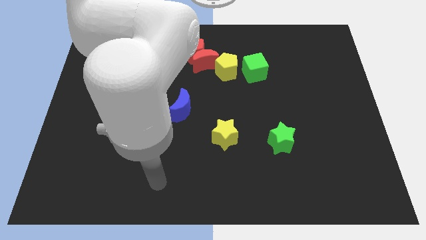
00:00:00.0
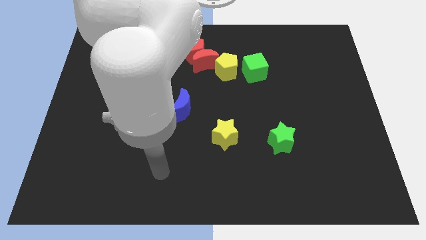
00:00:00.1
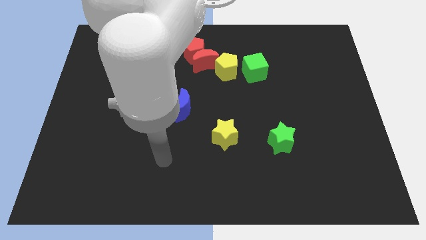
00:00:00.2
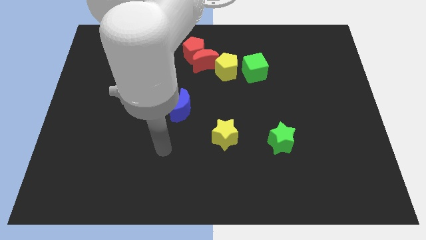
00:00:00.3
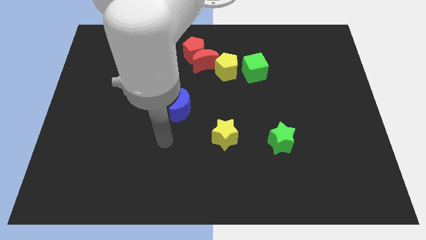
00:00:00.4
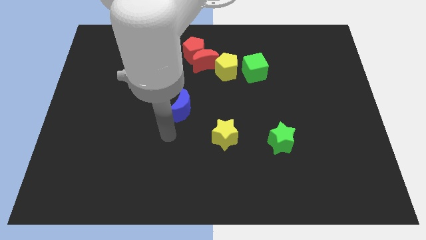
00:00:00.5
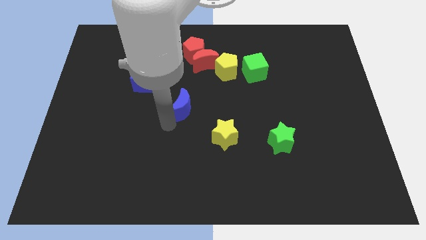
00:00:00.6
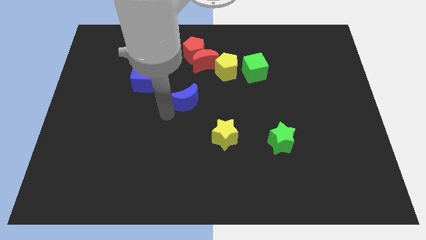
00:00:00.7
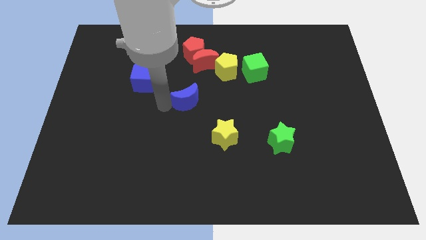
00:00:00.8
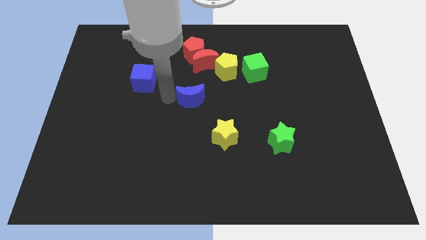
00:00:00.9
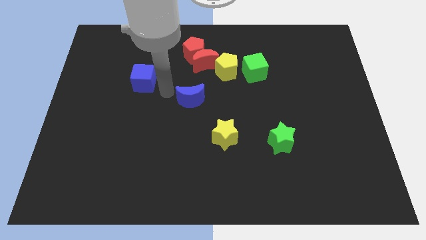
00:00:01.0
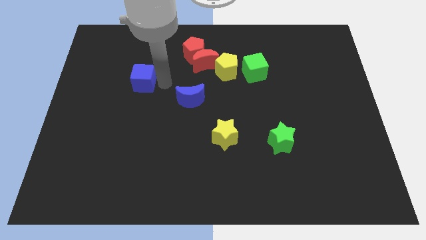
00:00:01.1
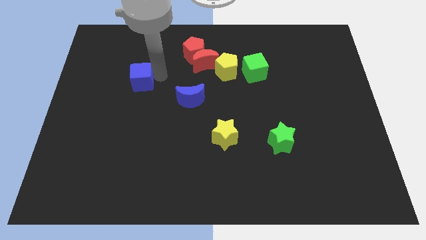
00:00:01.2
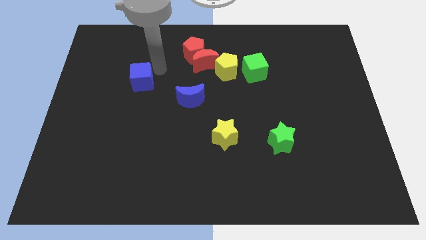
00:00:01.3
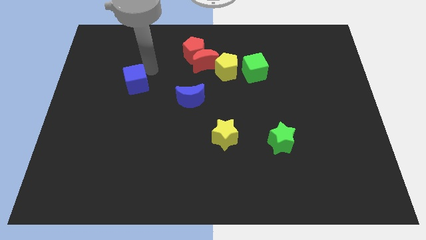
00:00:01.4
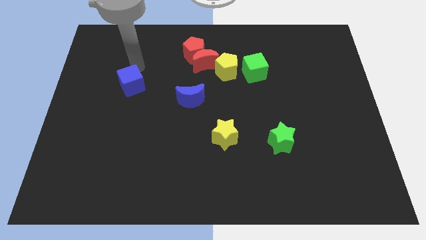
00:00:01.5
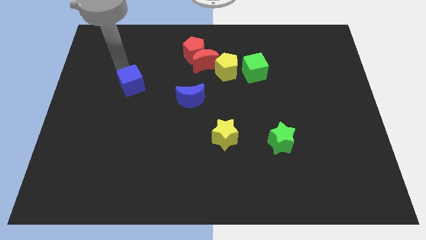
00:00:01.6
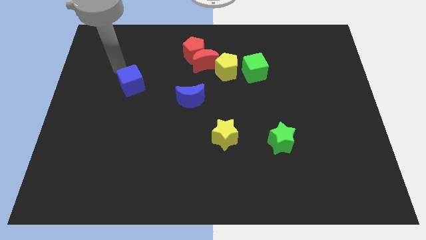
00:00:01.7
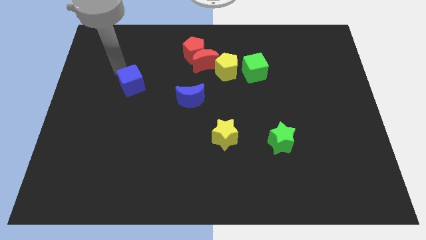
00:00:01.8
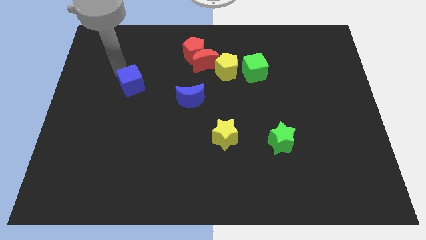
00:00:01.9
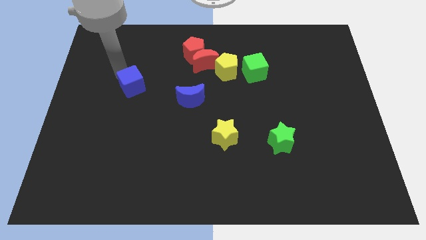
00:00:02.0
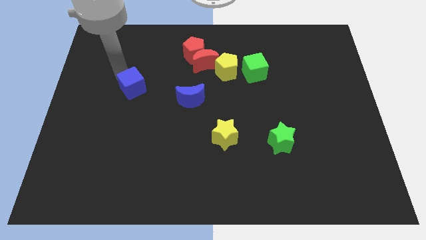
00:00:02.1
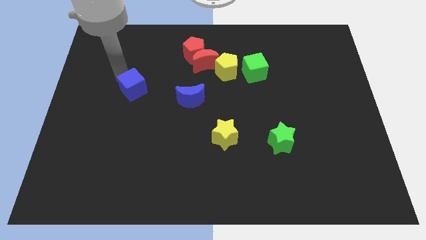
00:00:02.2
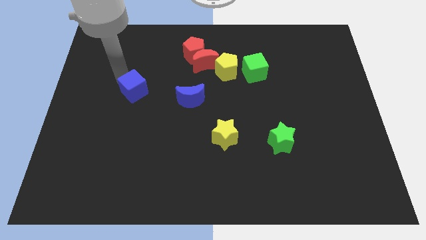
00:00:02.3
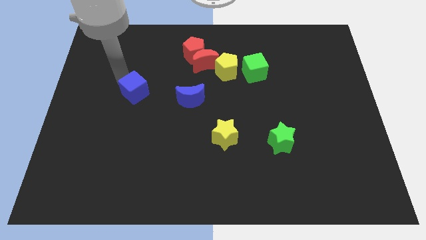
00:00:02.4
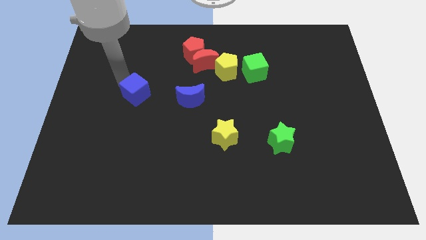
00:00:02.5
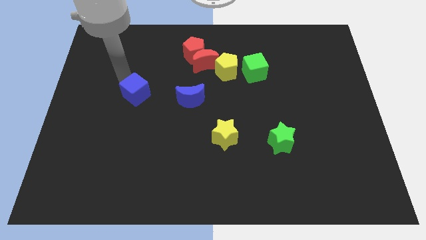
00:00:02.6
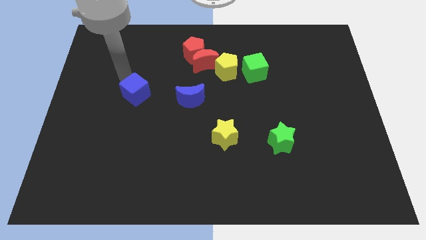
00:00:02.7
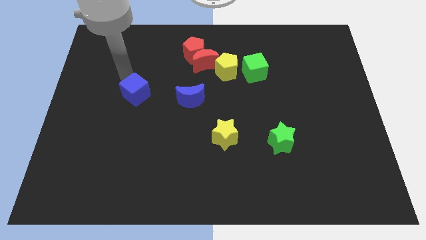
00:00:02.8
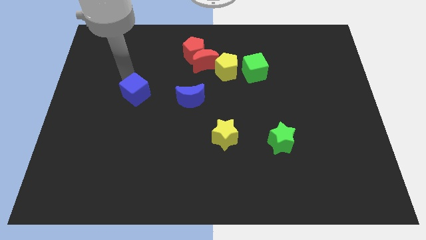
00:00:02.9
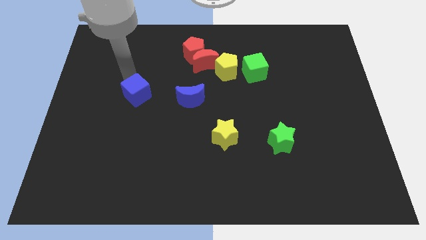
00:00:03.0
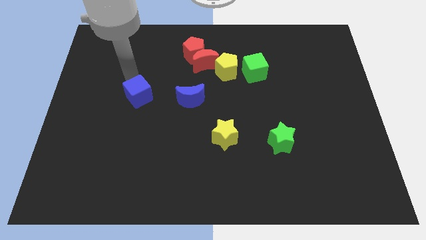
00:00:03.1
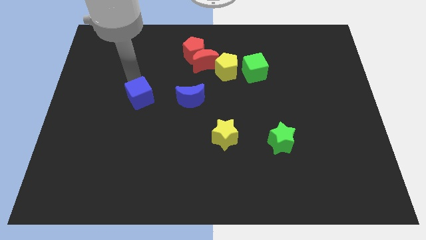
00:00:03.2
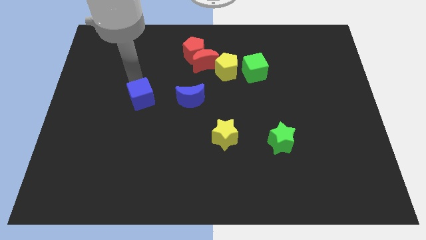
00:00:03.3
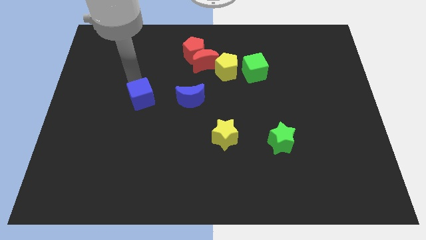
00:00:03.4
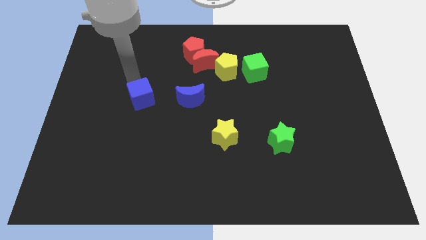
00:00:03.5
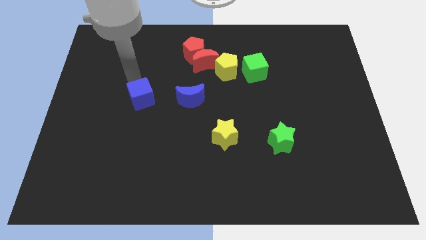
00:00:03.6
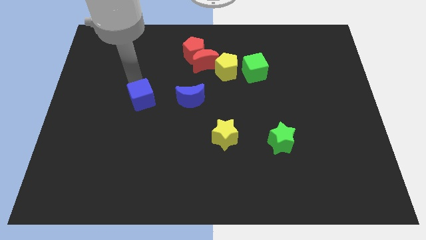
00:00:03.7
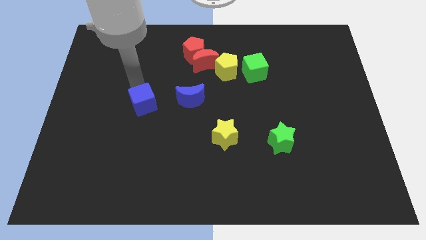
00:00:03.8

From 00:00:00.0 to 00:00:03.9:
slide the blue cube downwards a little

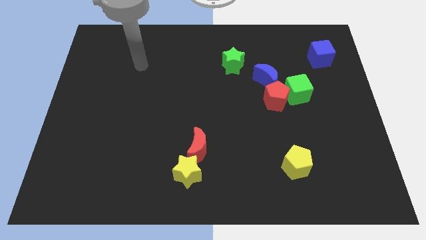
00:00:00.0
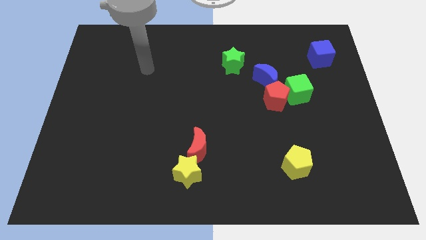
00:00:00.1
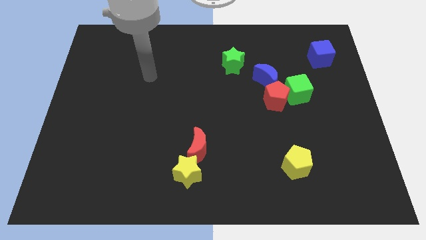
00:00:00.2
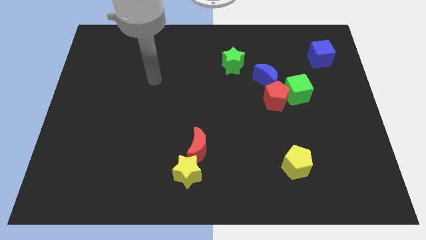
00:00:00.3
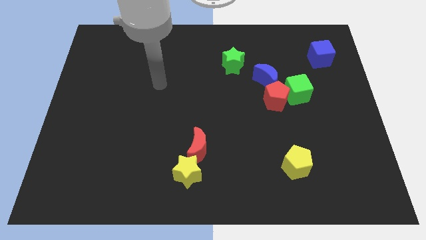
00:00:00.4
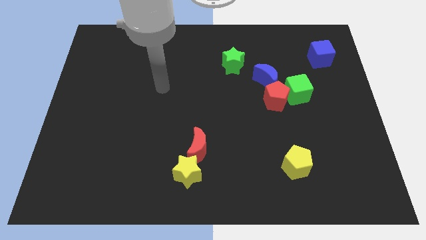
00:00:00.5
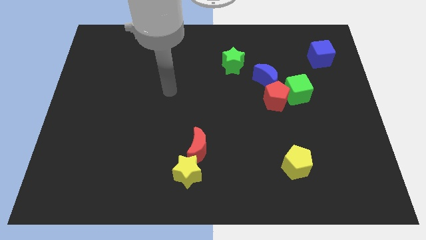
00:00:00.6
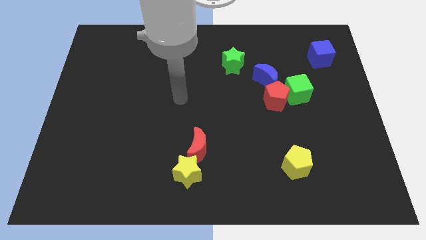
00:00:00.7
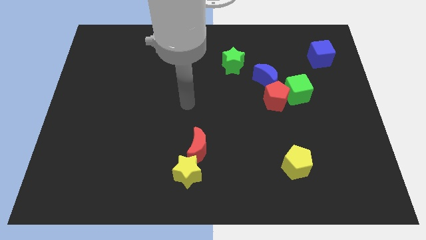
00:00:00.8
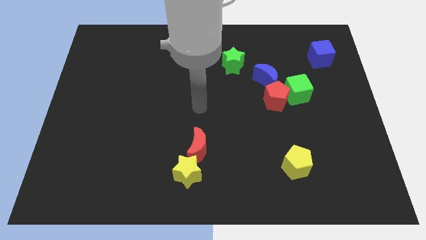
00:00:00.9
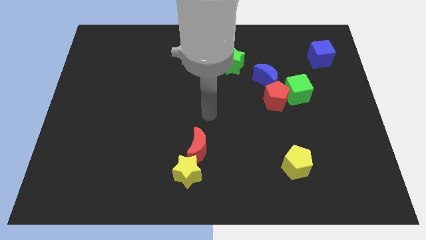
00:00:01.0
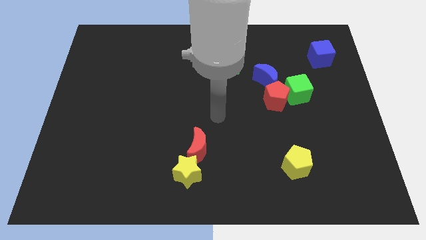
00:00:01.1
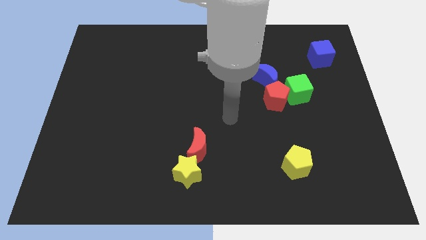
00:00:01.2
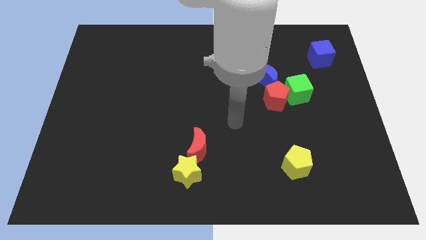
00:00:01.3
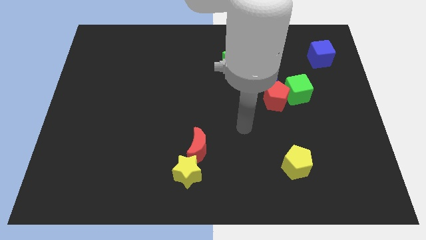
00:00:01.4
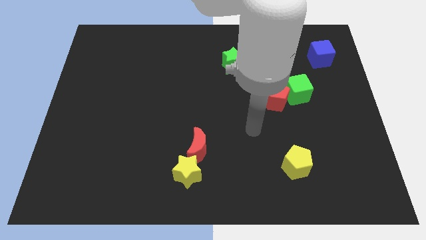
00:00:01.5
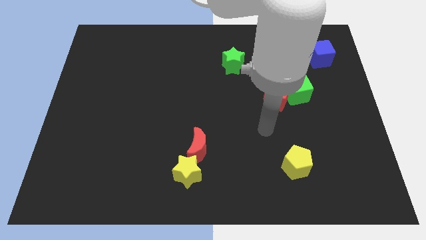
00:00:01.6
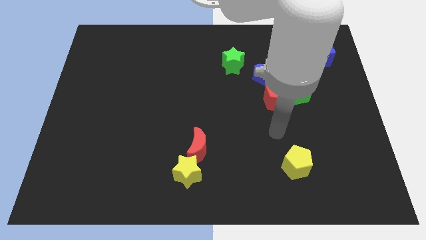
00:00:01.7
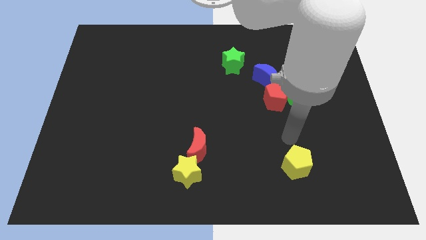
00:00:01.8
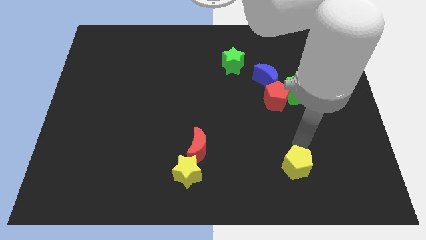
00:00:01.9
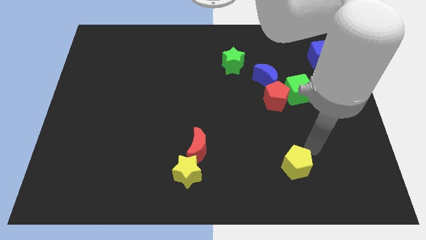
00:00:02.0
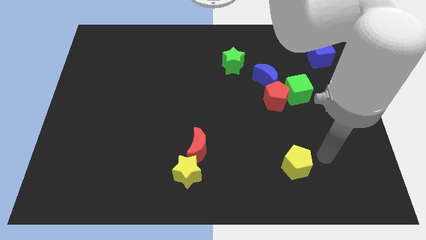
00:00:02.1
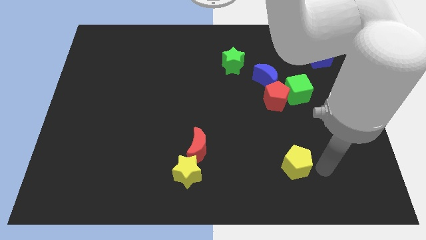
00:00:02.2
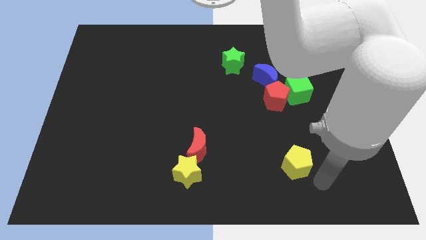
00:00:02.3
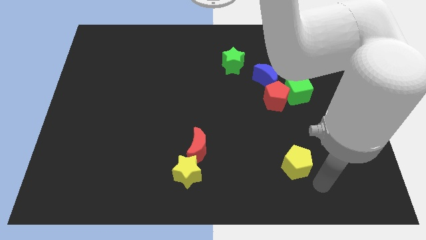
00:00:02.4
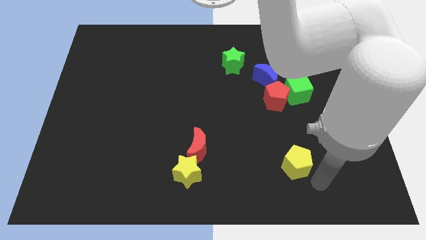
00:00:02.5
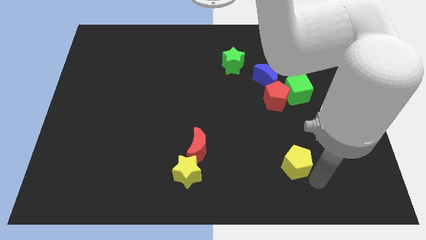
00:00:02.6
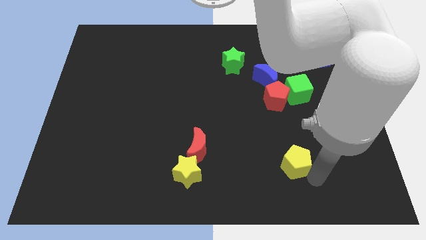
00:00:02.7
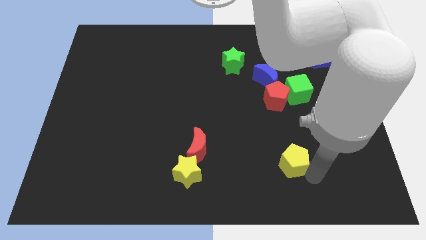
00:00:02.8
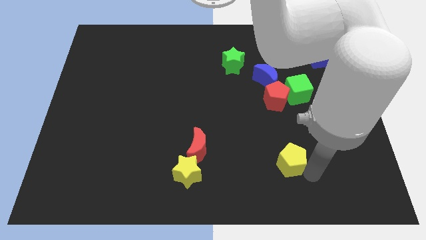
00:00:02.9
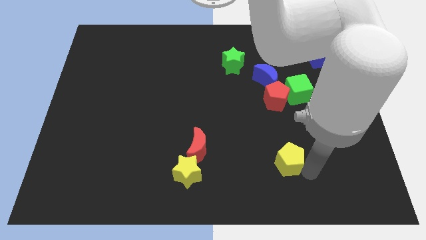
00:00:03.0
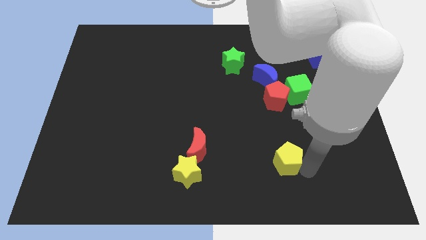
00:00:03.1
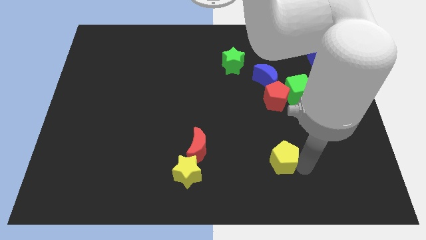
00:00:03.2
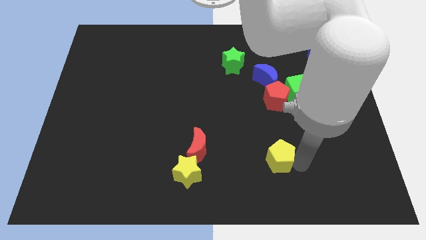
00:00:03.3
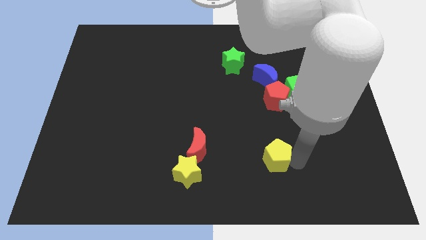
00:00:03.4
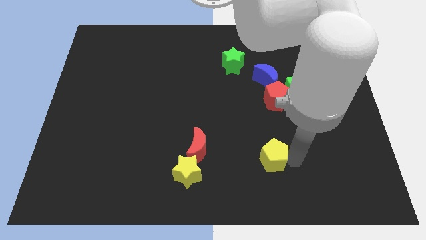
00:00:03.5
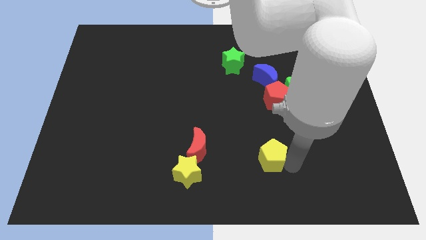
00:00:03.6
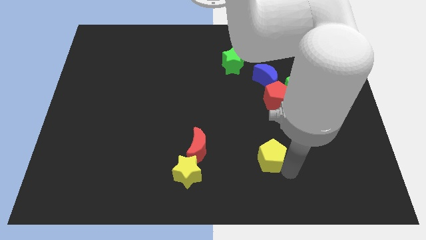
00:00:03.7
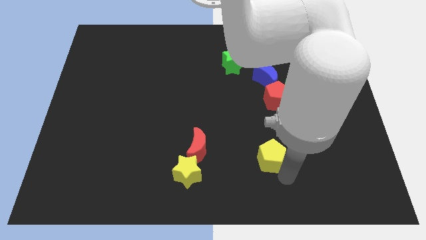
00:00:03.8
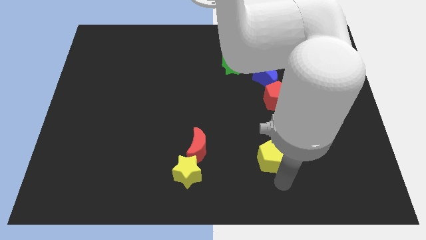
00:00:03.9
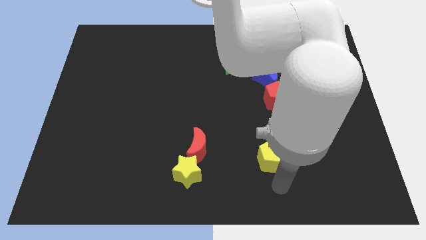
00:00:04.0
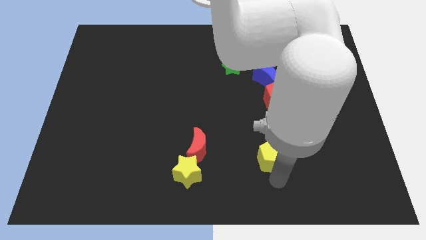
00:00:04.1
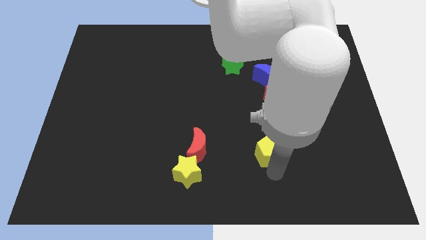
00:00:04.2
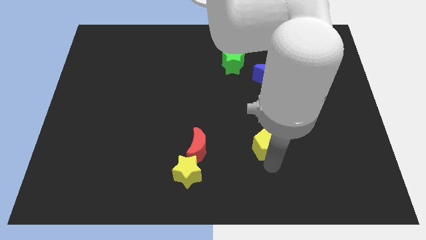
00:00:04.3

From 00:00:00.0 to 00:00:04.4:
slightly slide the yellow pentagon upwards and to the left diagonally
